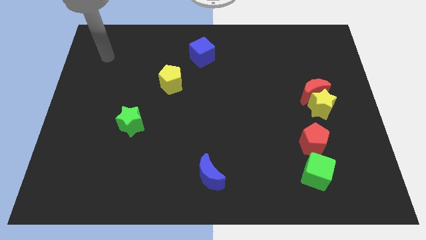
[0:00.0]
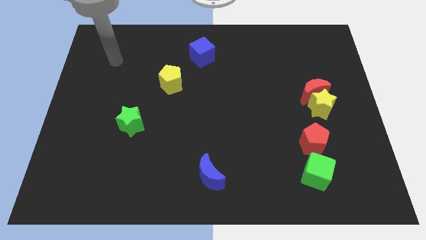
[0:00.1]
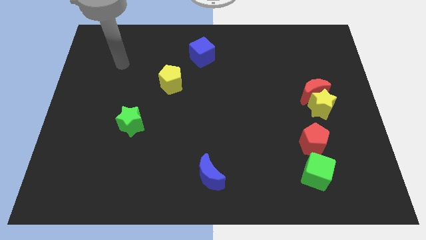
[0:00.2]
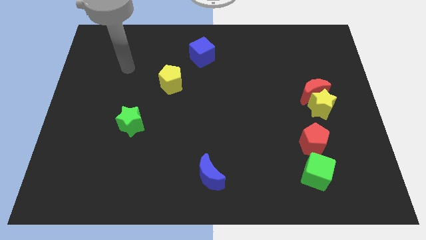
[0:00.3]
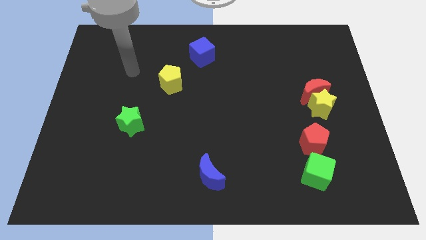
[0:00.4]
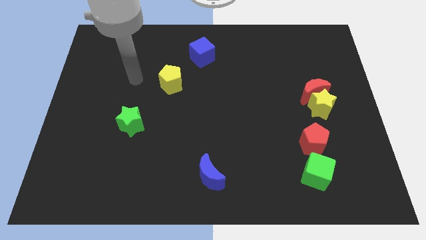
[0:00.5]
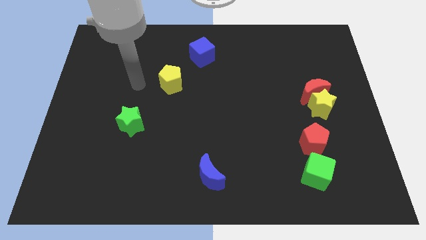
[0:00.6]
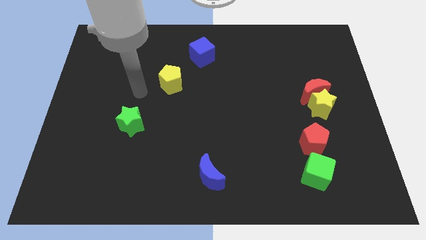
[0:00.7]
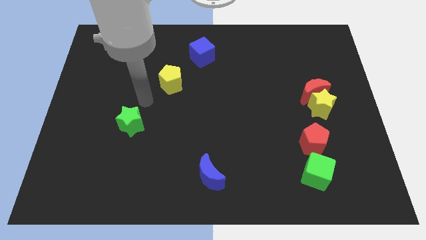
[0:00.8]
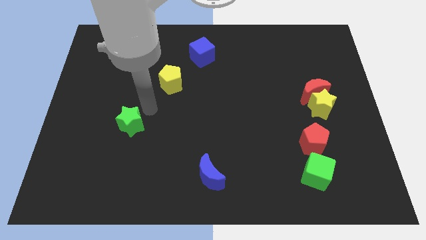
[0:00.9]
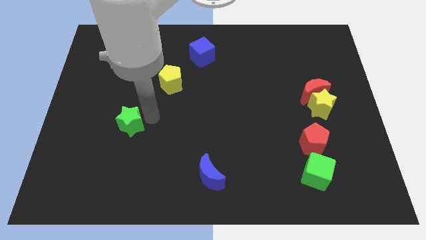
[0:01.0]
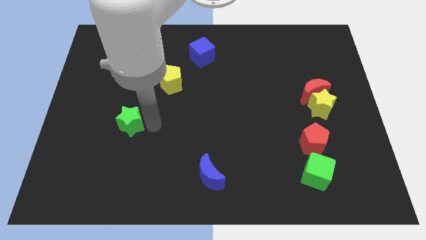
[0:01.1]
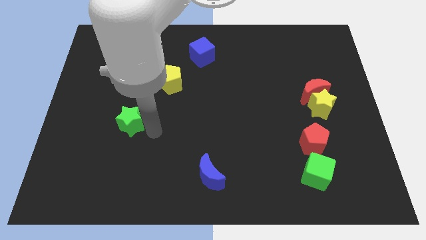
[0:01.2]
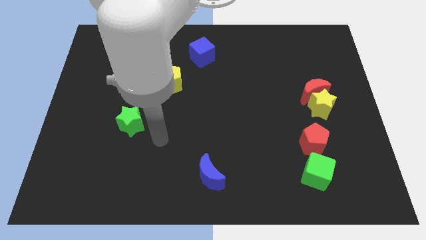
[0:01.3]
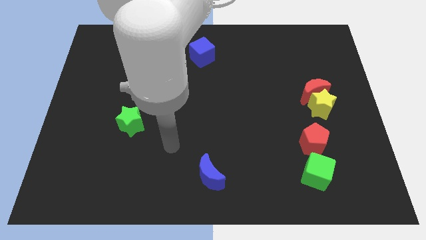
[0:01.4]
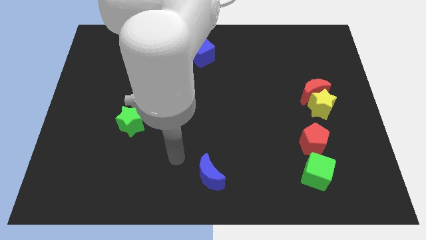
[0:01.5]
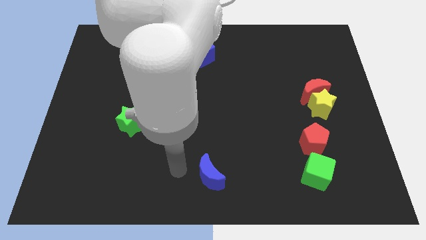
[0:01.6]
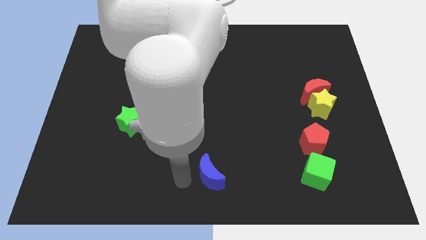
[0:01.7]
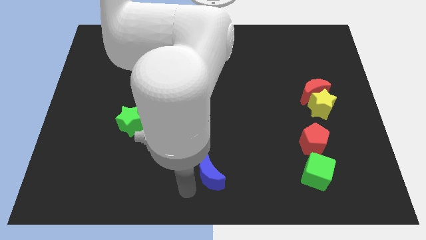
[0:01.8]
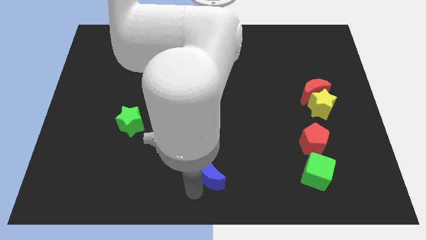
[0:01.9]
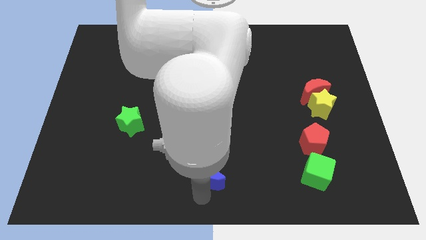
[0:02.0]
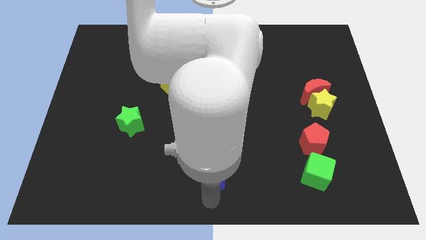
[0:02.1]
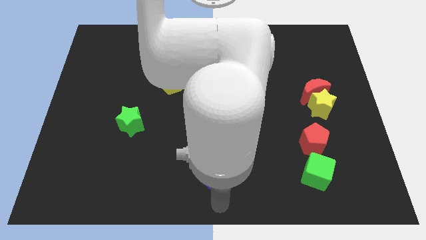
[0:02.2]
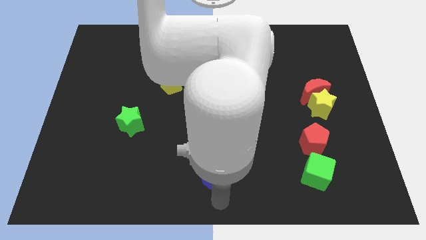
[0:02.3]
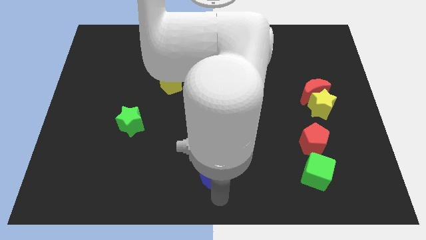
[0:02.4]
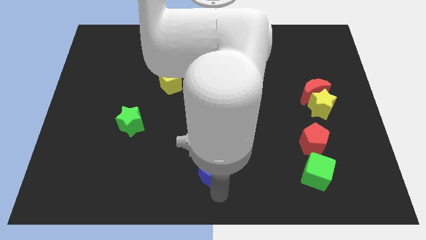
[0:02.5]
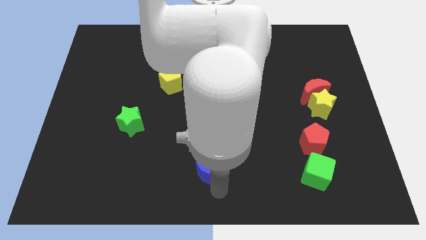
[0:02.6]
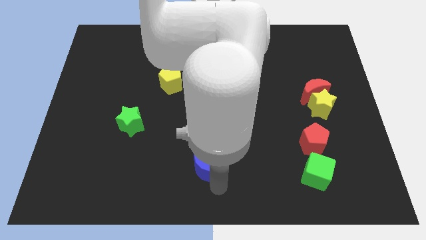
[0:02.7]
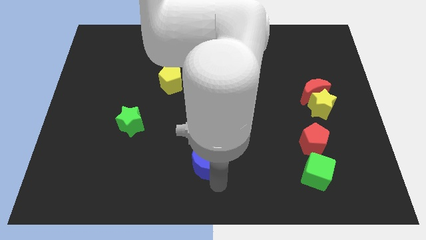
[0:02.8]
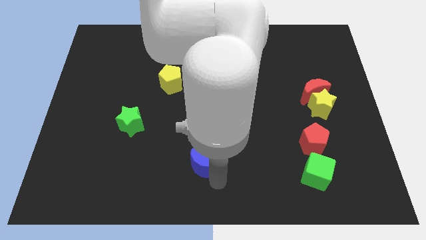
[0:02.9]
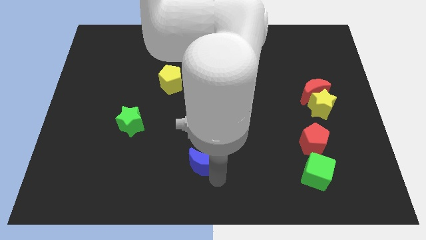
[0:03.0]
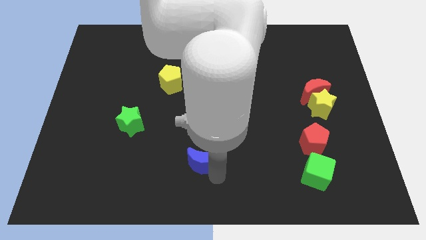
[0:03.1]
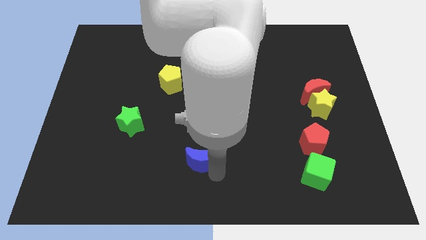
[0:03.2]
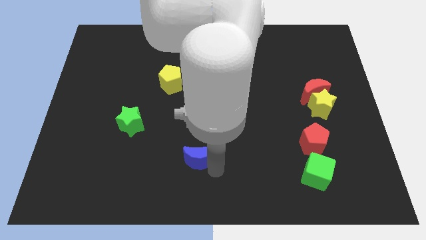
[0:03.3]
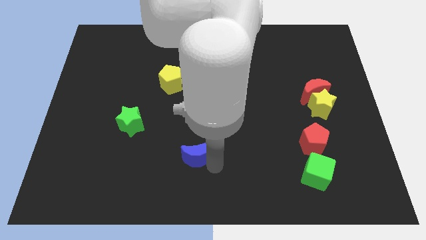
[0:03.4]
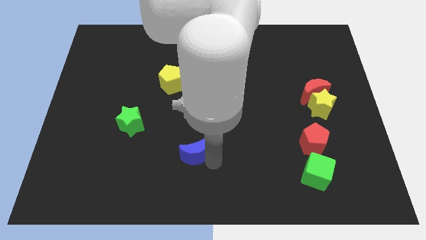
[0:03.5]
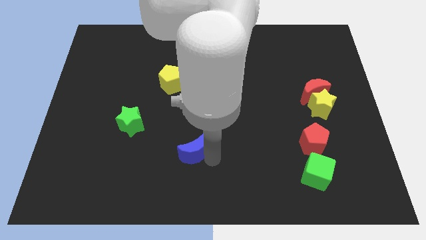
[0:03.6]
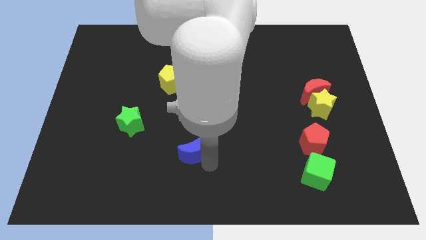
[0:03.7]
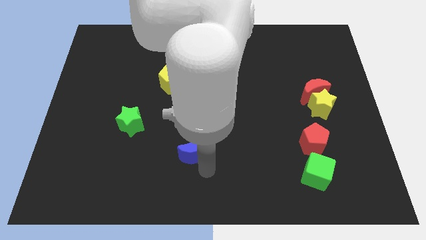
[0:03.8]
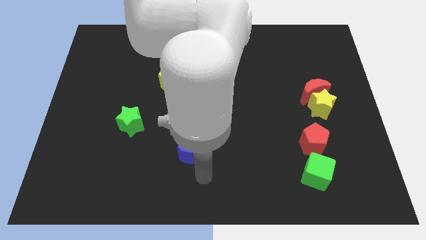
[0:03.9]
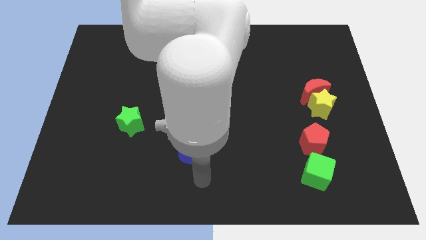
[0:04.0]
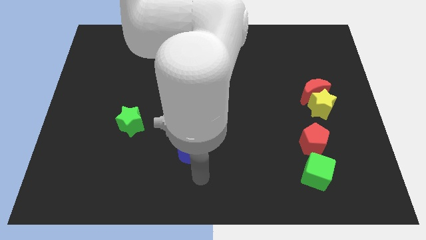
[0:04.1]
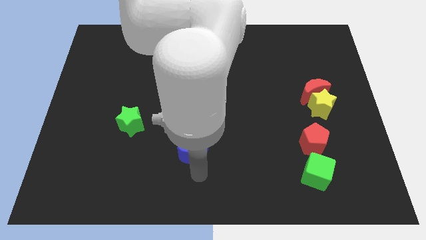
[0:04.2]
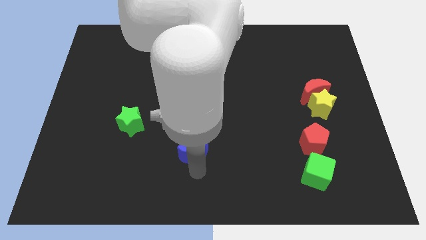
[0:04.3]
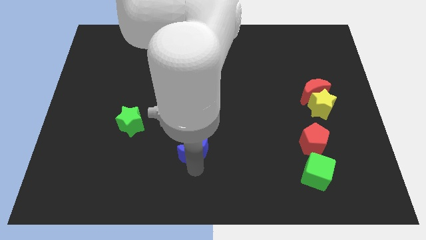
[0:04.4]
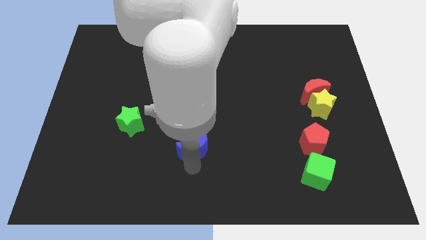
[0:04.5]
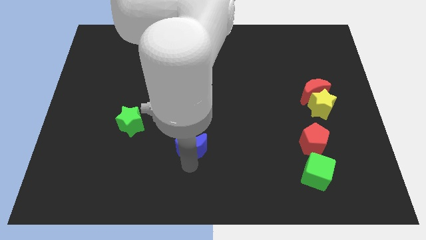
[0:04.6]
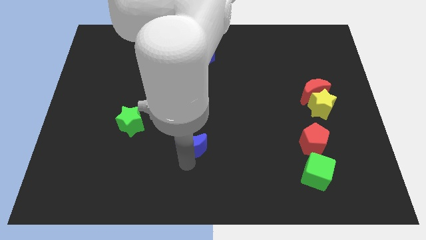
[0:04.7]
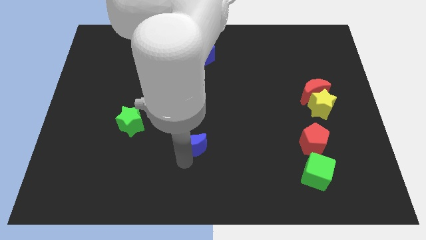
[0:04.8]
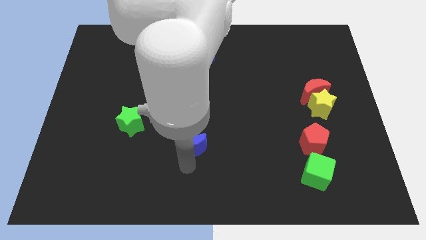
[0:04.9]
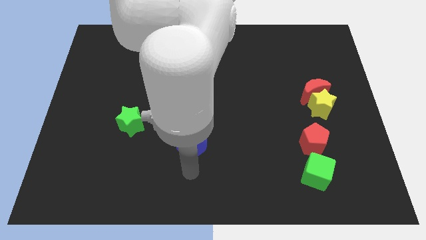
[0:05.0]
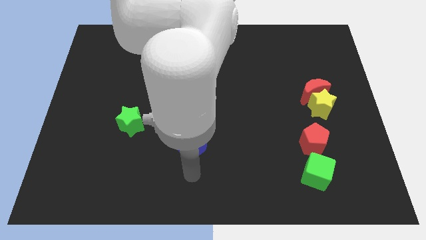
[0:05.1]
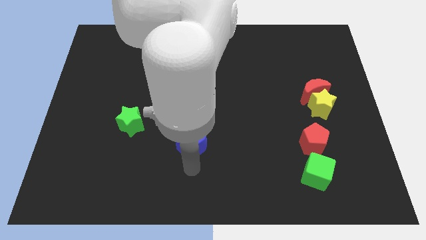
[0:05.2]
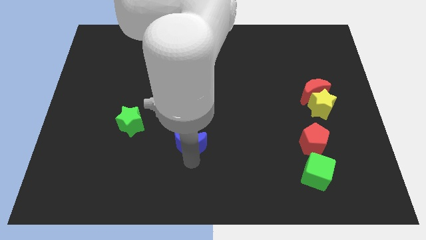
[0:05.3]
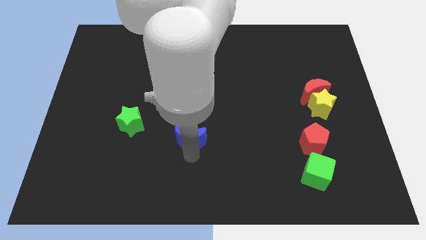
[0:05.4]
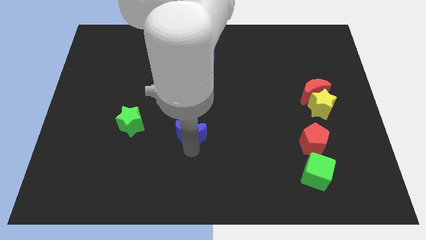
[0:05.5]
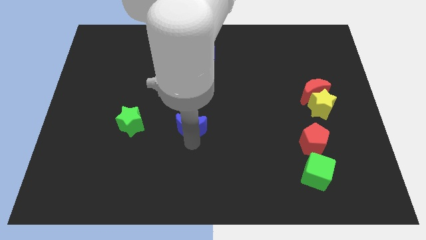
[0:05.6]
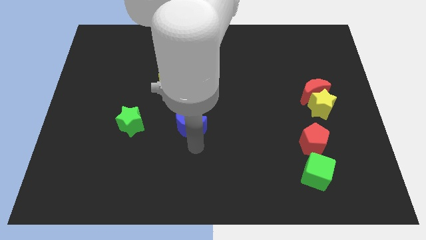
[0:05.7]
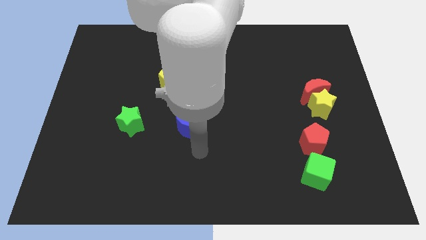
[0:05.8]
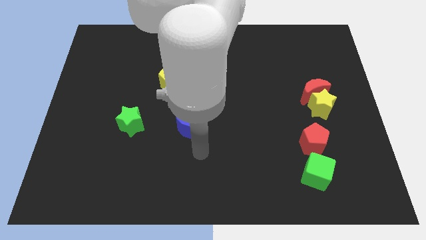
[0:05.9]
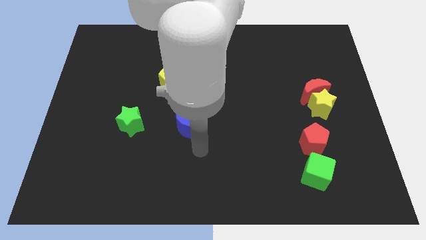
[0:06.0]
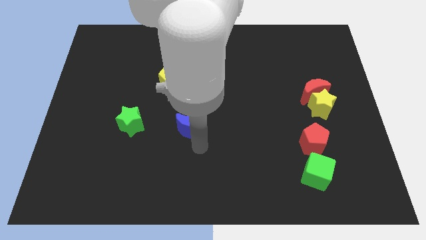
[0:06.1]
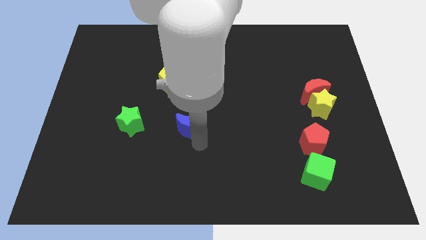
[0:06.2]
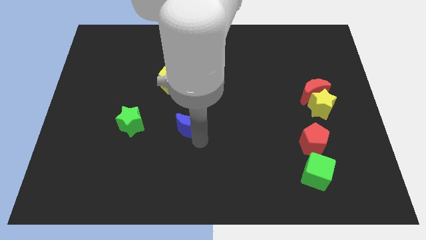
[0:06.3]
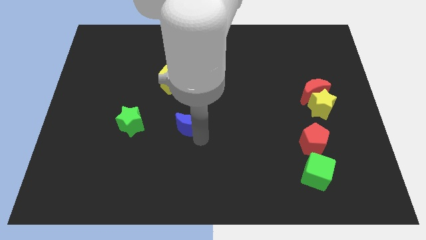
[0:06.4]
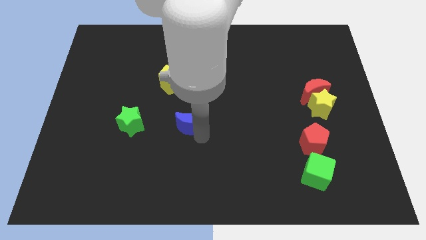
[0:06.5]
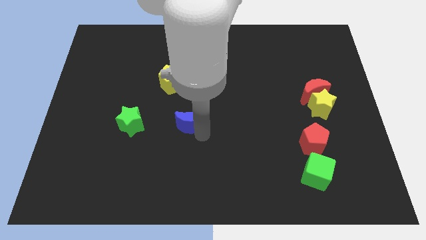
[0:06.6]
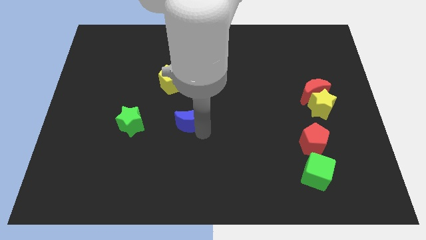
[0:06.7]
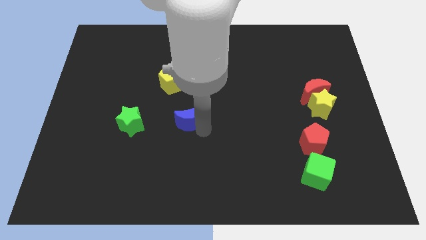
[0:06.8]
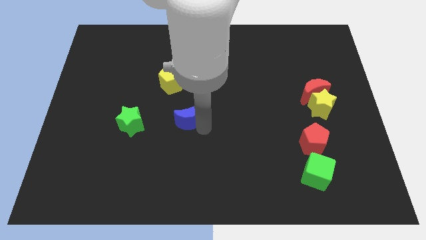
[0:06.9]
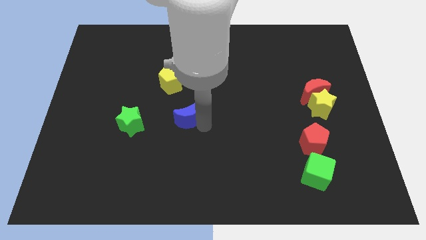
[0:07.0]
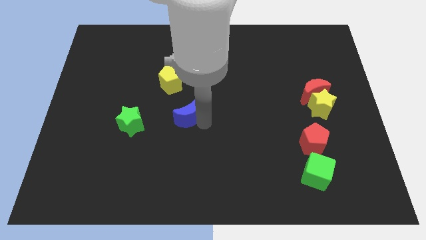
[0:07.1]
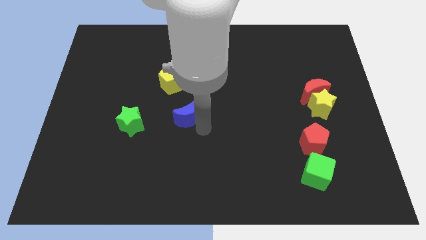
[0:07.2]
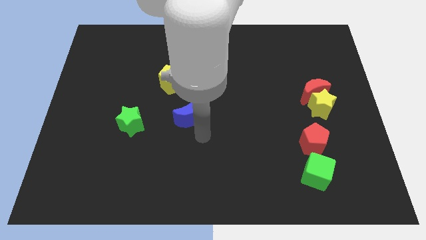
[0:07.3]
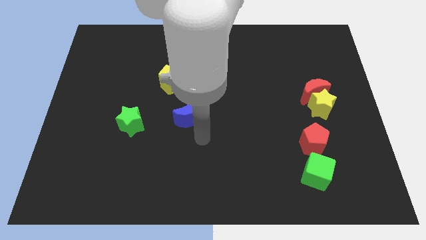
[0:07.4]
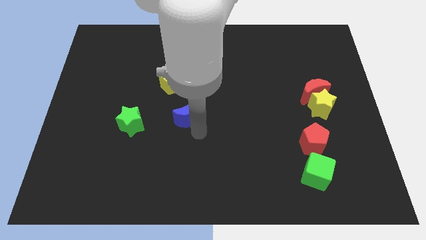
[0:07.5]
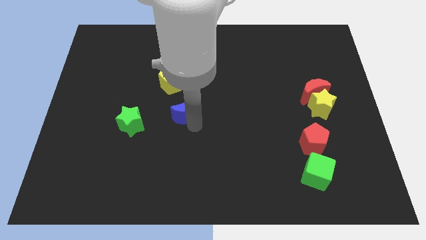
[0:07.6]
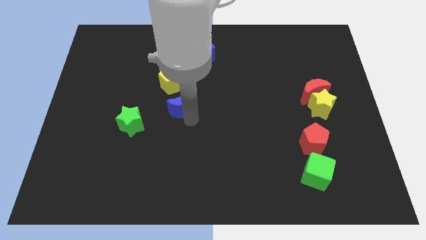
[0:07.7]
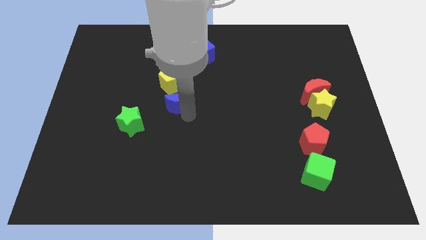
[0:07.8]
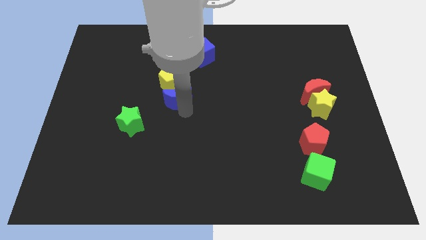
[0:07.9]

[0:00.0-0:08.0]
push the blue moon next to the yellow pentagon

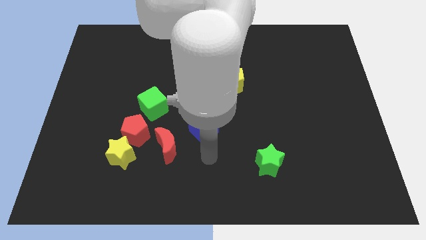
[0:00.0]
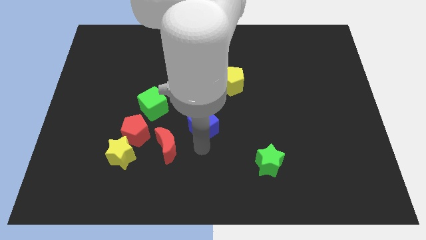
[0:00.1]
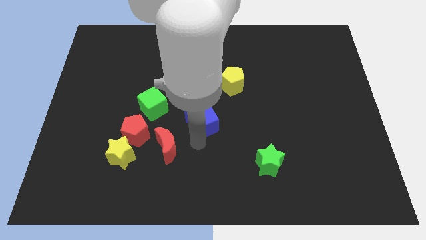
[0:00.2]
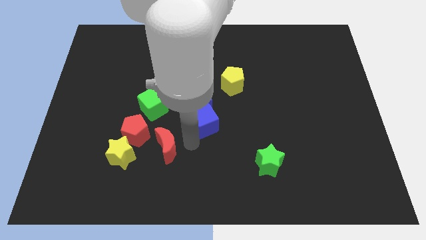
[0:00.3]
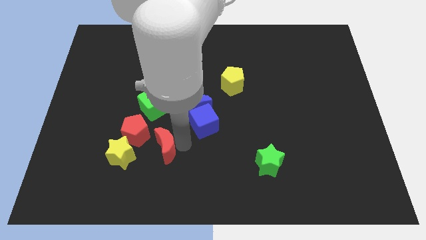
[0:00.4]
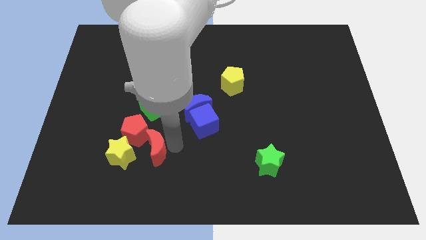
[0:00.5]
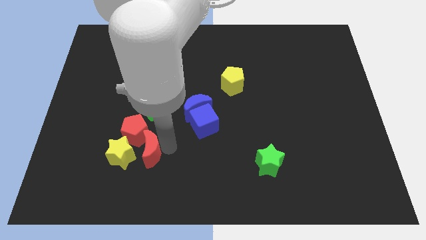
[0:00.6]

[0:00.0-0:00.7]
push the red moon towards the yellow star
